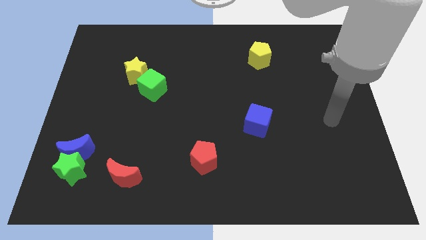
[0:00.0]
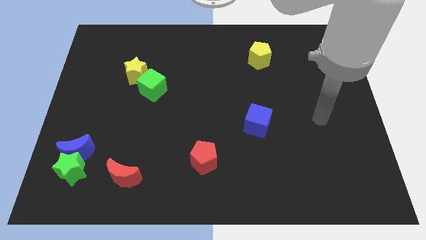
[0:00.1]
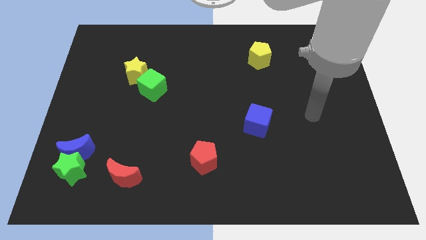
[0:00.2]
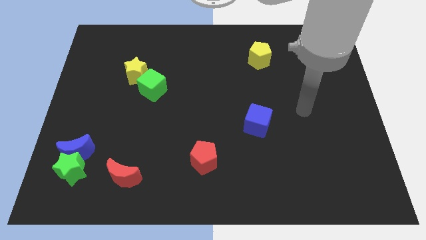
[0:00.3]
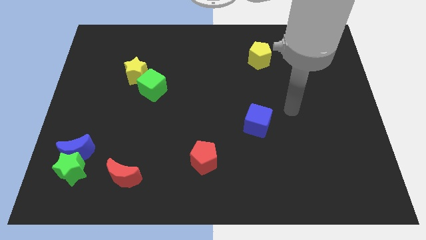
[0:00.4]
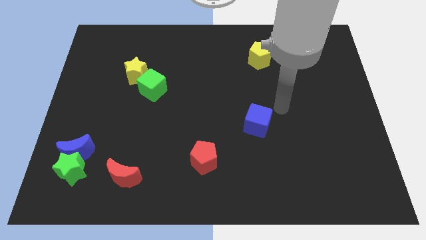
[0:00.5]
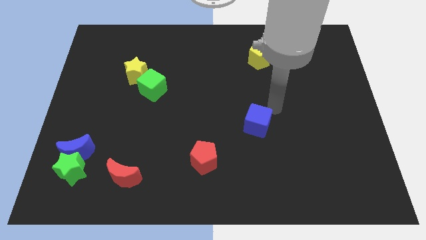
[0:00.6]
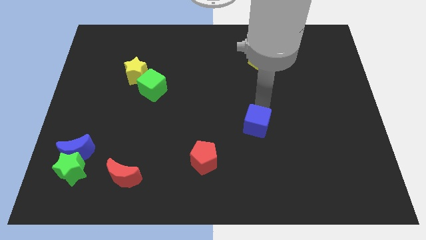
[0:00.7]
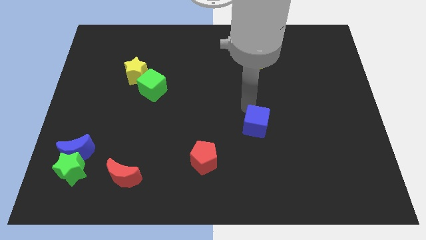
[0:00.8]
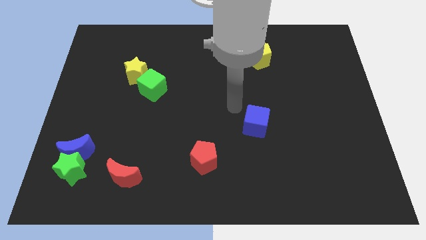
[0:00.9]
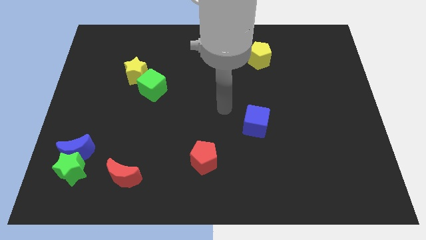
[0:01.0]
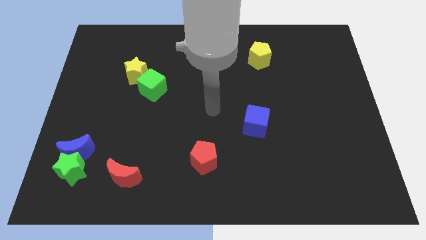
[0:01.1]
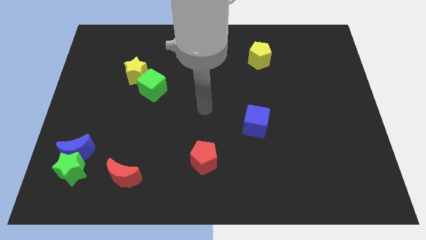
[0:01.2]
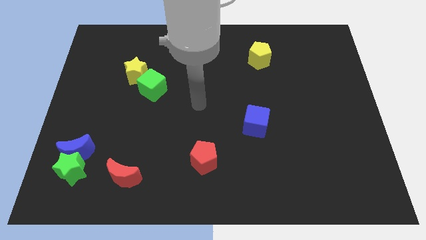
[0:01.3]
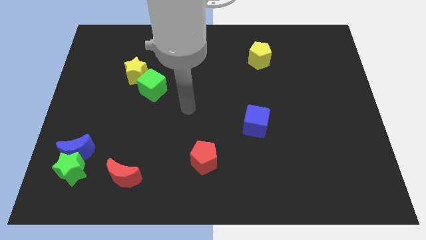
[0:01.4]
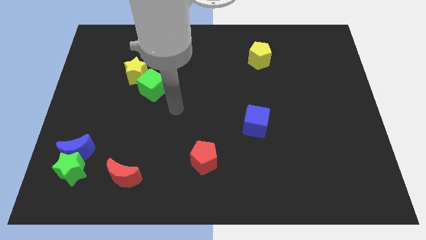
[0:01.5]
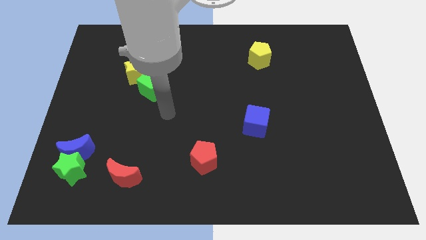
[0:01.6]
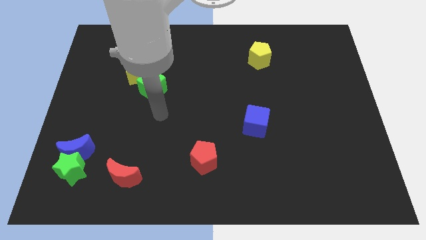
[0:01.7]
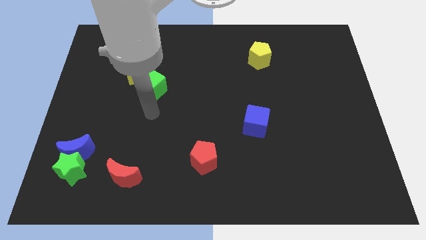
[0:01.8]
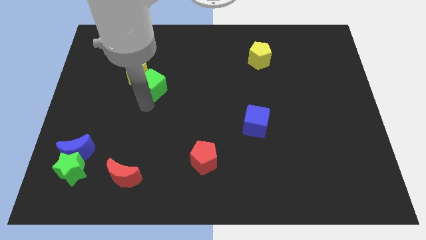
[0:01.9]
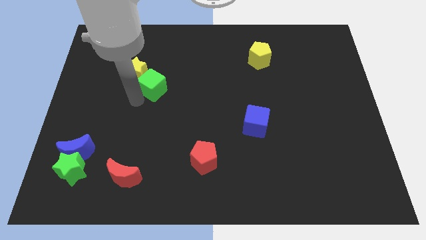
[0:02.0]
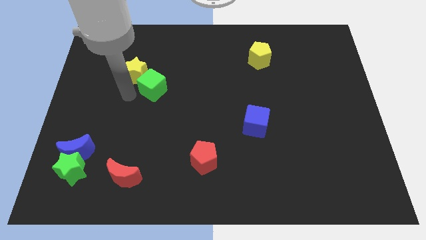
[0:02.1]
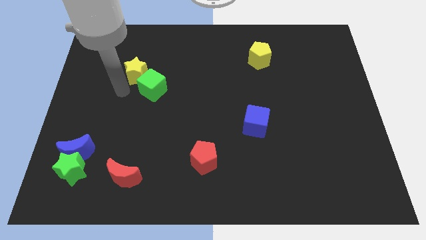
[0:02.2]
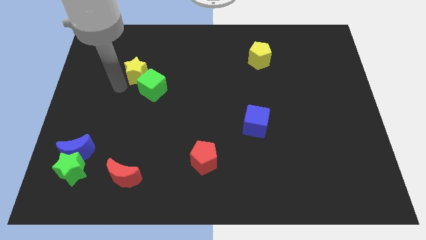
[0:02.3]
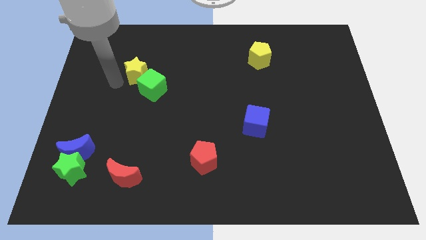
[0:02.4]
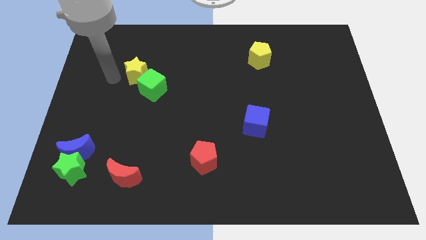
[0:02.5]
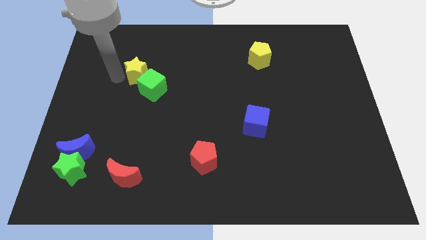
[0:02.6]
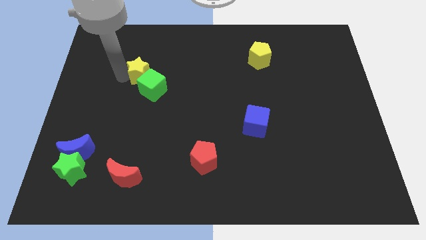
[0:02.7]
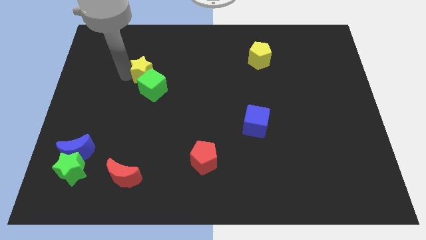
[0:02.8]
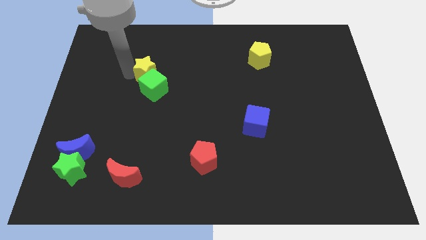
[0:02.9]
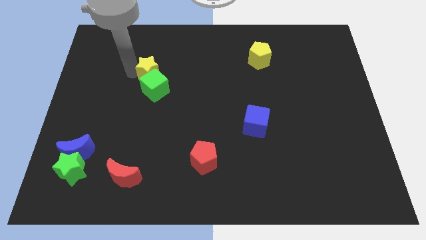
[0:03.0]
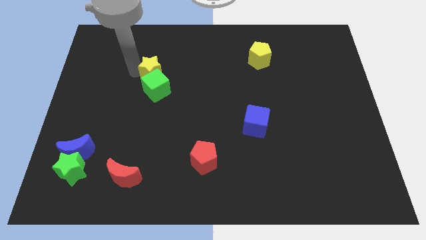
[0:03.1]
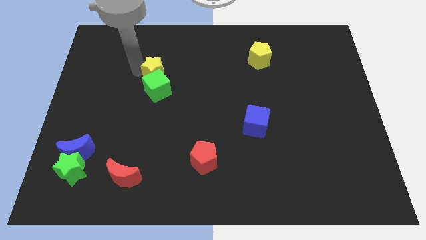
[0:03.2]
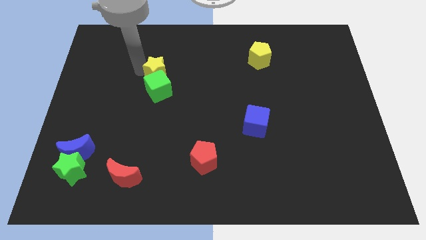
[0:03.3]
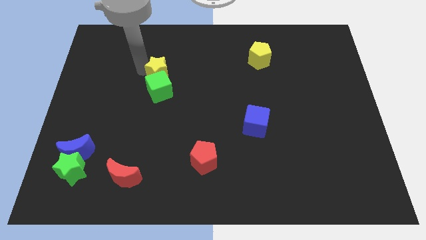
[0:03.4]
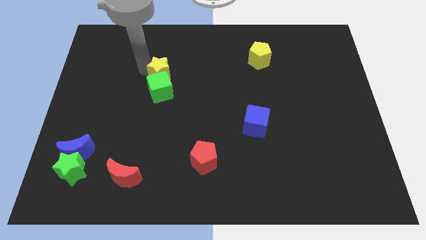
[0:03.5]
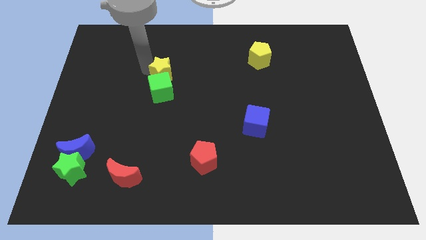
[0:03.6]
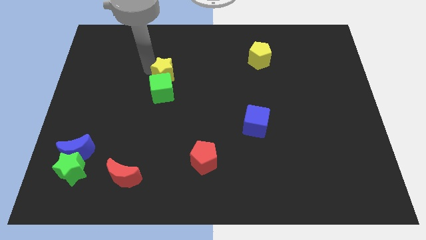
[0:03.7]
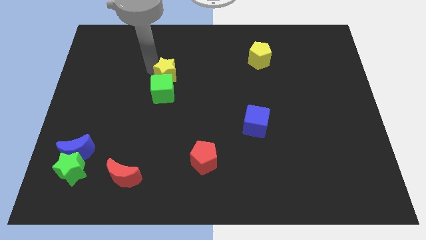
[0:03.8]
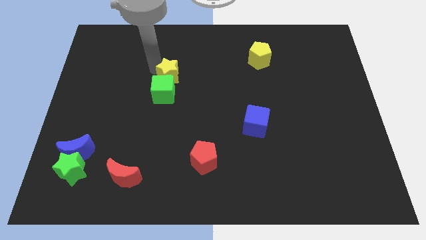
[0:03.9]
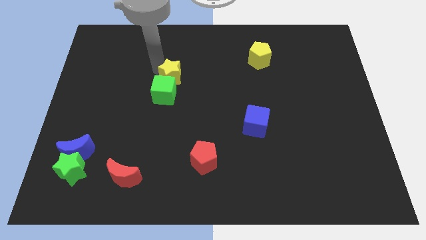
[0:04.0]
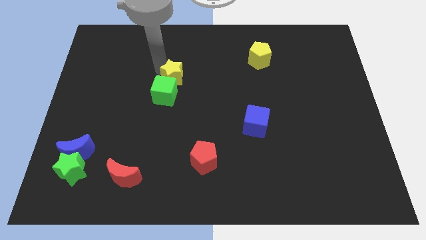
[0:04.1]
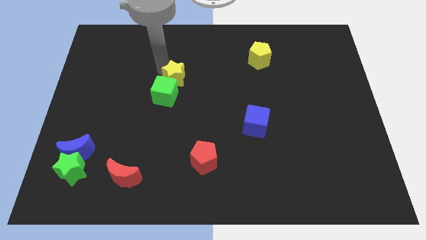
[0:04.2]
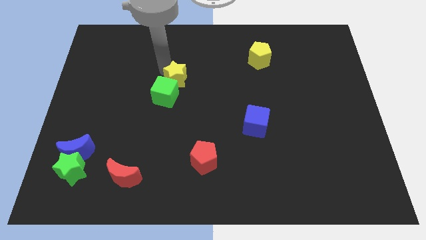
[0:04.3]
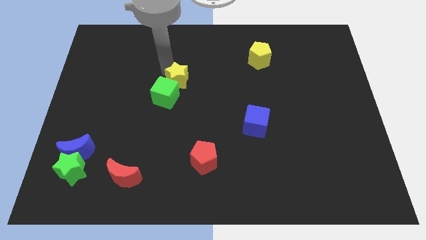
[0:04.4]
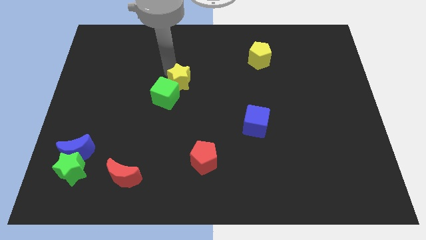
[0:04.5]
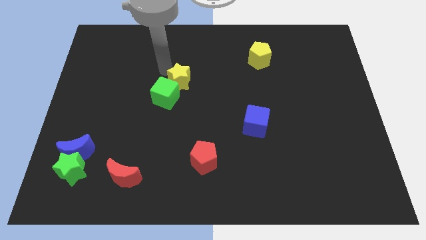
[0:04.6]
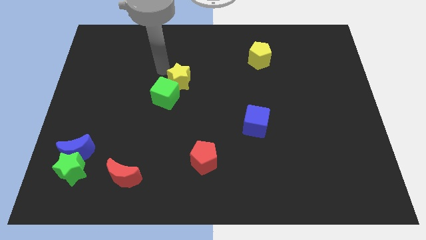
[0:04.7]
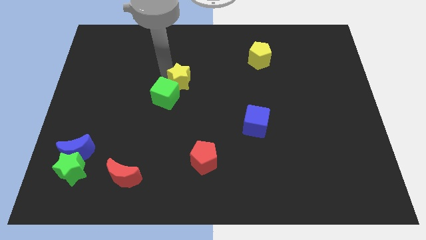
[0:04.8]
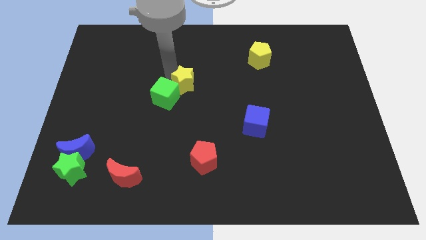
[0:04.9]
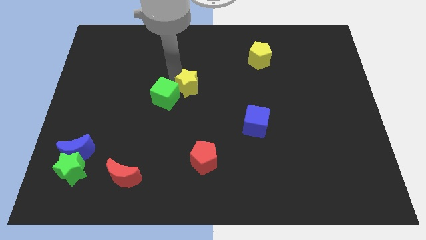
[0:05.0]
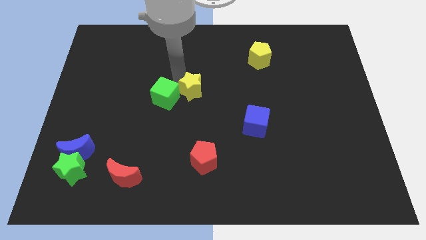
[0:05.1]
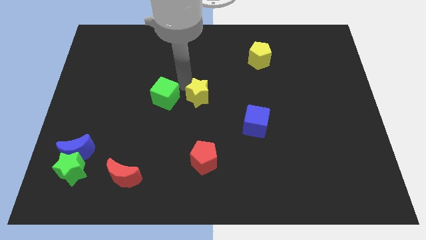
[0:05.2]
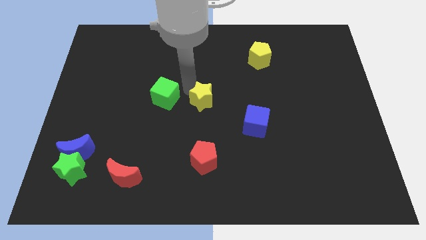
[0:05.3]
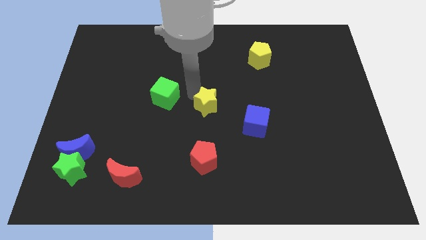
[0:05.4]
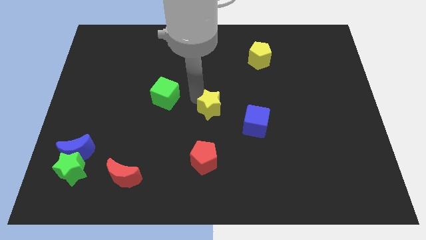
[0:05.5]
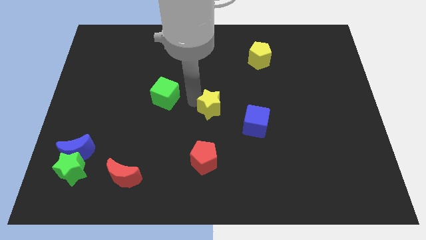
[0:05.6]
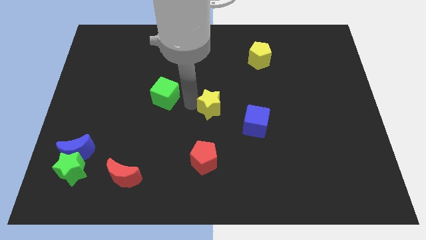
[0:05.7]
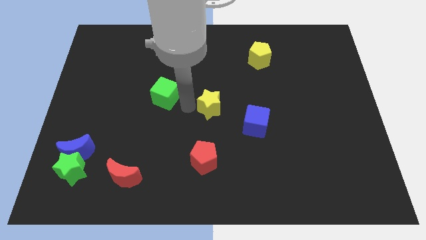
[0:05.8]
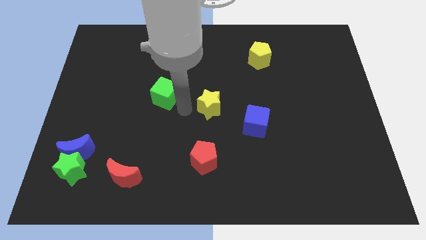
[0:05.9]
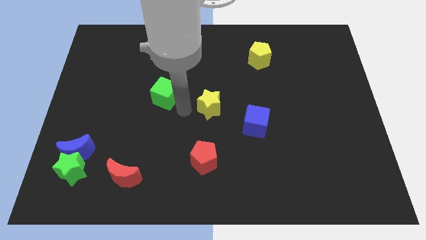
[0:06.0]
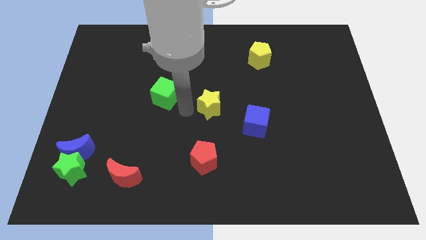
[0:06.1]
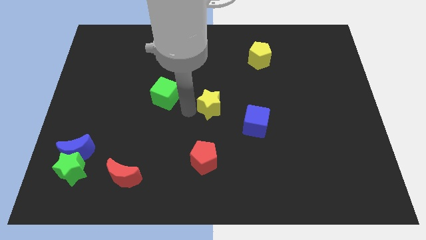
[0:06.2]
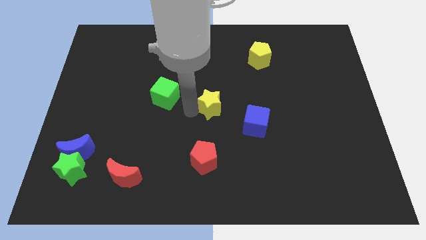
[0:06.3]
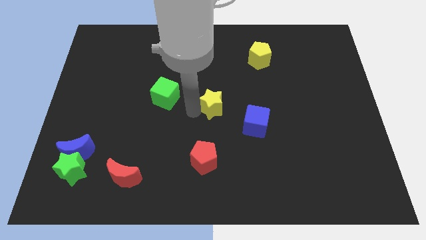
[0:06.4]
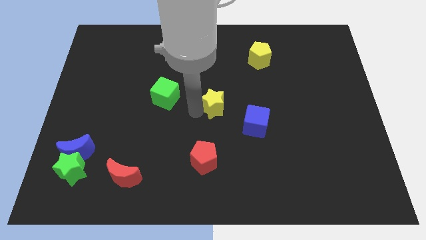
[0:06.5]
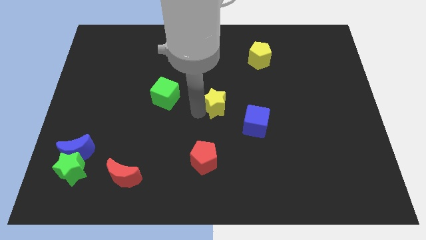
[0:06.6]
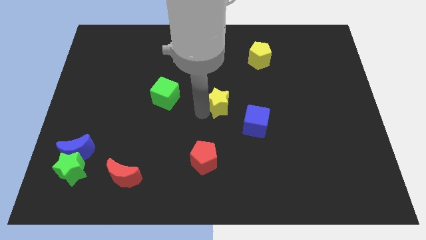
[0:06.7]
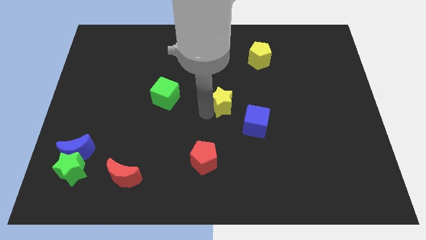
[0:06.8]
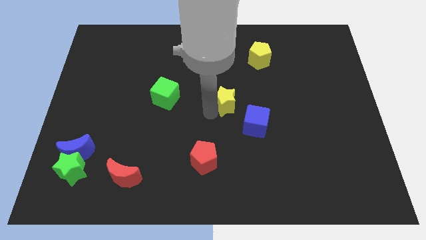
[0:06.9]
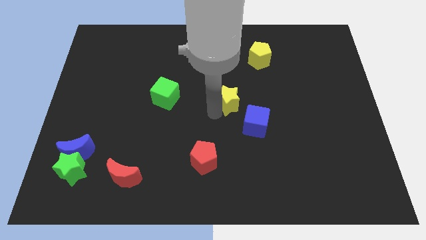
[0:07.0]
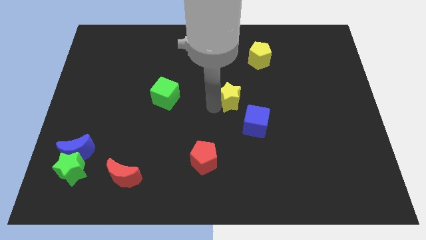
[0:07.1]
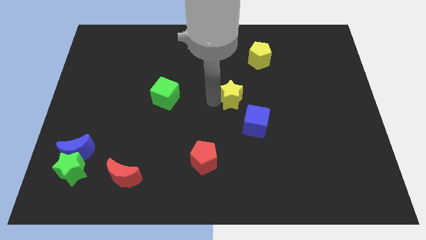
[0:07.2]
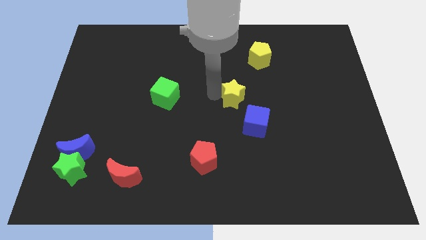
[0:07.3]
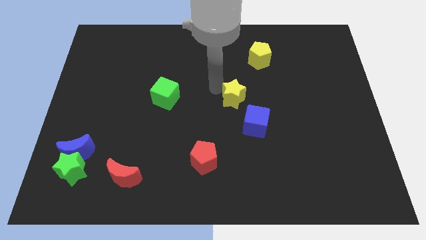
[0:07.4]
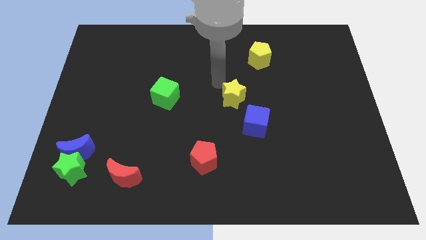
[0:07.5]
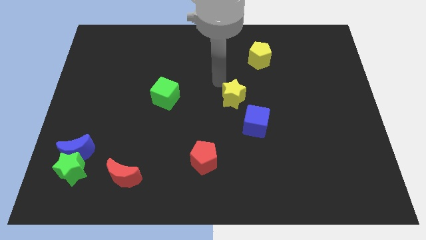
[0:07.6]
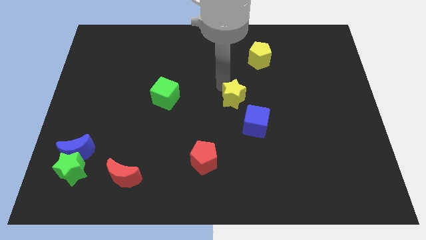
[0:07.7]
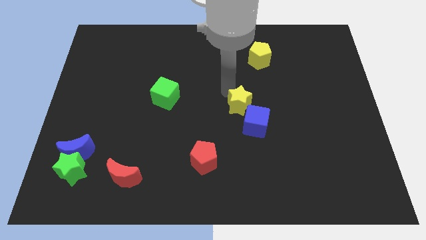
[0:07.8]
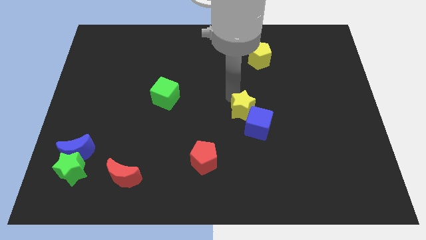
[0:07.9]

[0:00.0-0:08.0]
put the yellow star close to the blue cube
